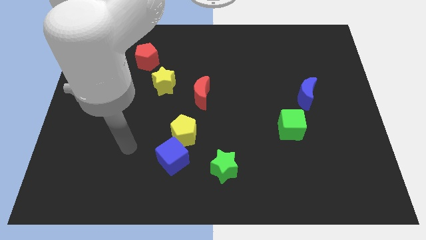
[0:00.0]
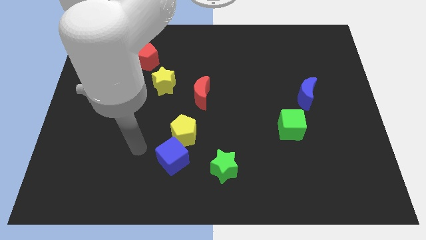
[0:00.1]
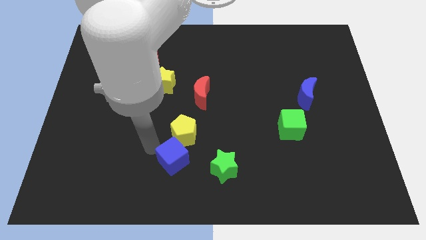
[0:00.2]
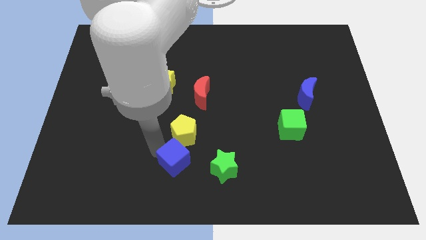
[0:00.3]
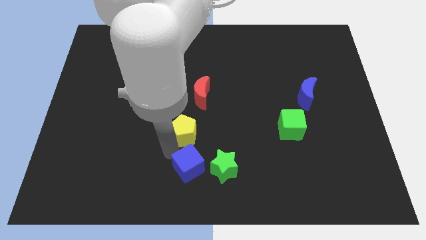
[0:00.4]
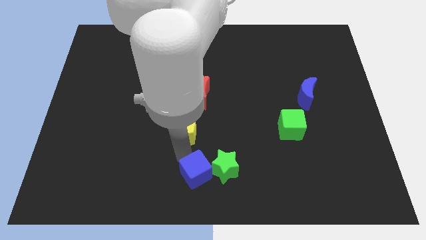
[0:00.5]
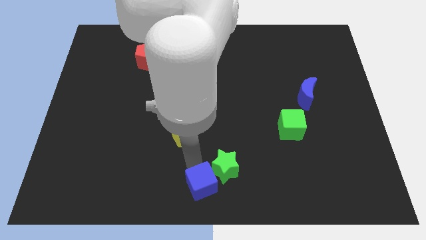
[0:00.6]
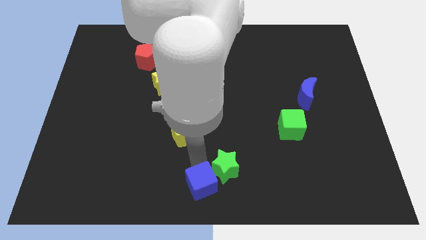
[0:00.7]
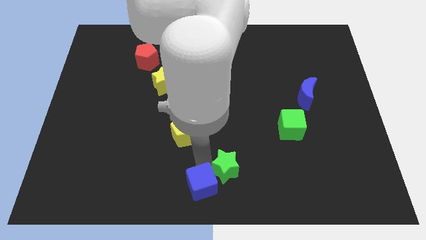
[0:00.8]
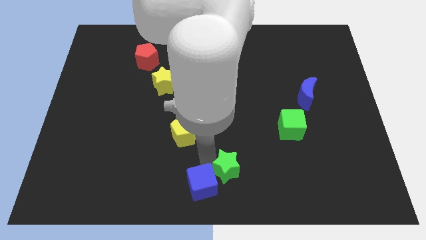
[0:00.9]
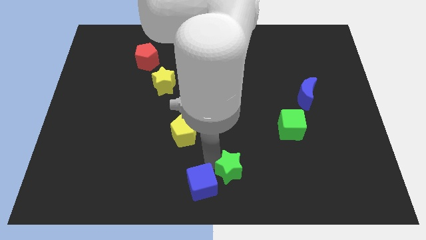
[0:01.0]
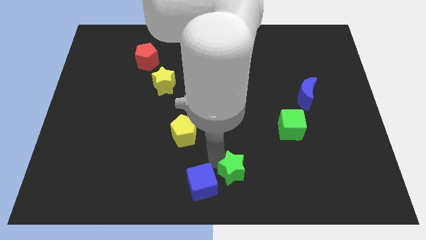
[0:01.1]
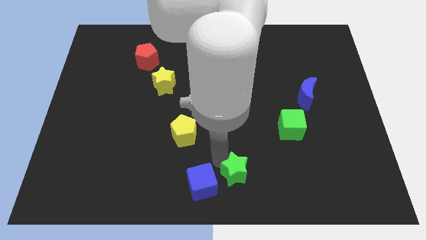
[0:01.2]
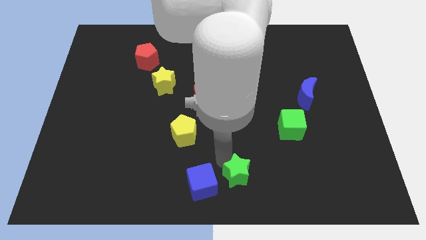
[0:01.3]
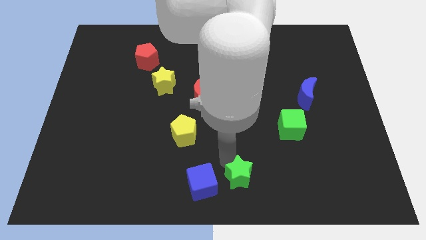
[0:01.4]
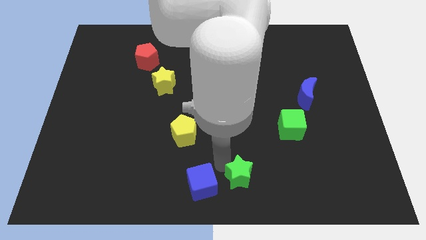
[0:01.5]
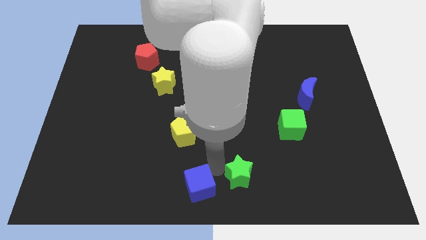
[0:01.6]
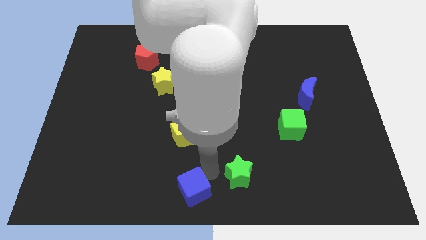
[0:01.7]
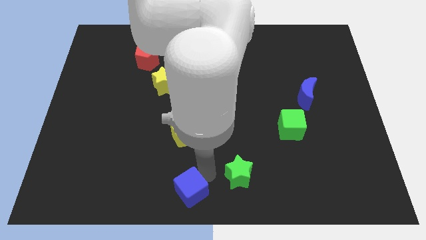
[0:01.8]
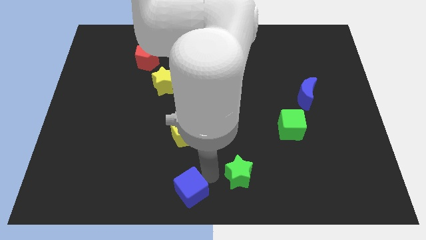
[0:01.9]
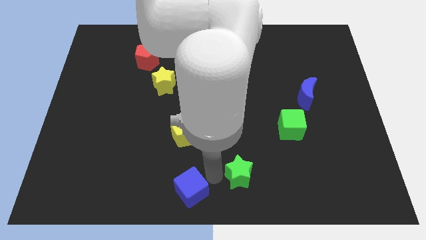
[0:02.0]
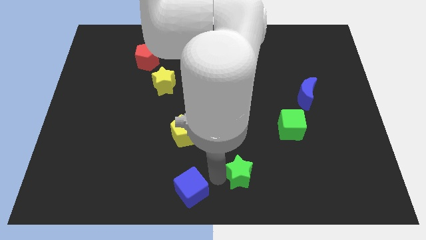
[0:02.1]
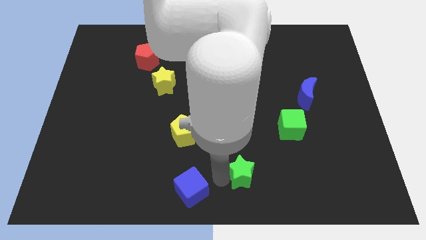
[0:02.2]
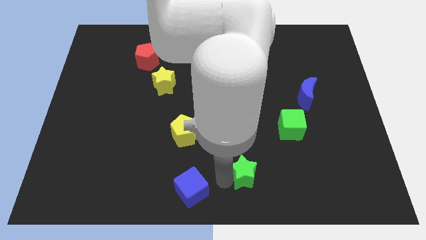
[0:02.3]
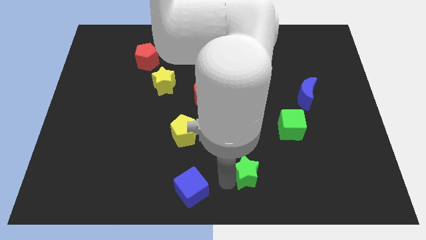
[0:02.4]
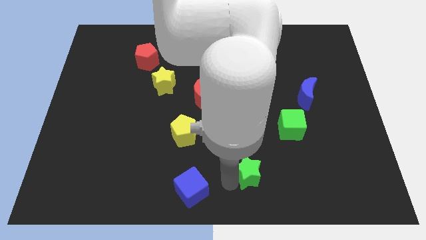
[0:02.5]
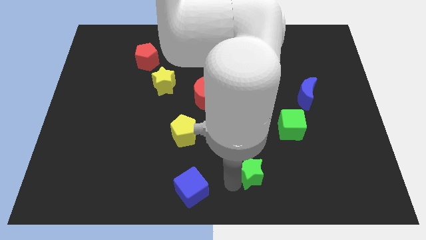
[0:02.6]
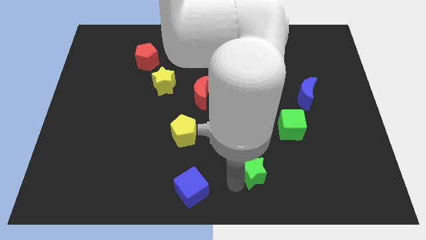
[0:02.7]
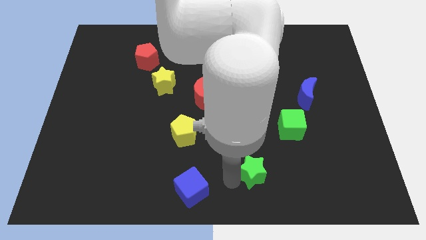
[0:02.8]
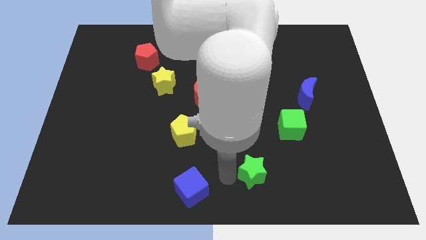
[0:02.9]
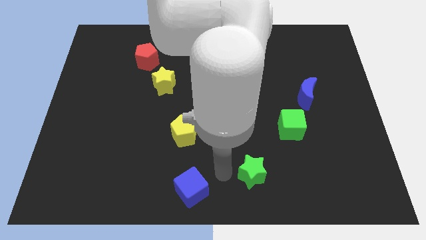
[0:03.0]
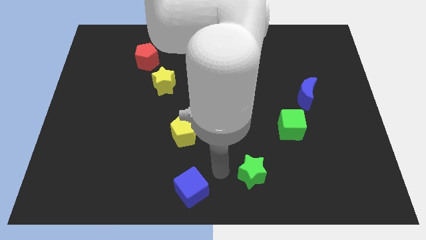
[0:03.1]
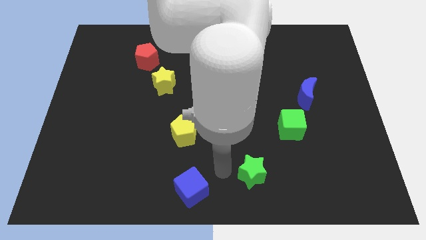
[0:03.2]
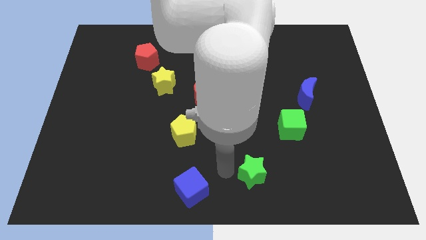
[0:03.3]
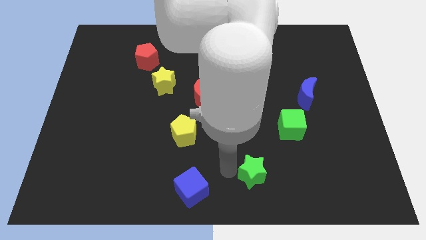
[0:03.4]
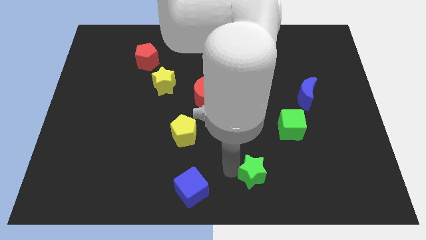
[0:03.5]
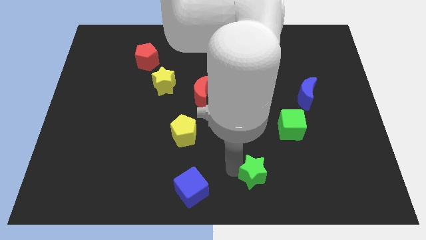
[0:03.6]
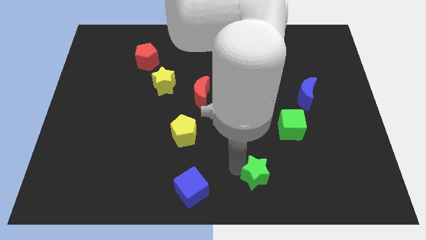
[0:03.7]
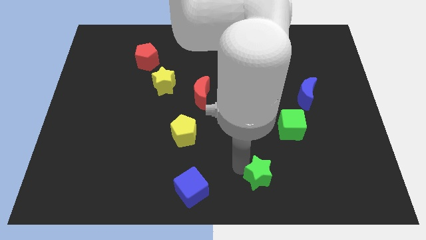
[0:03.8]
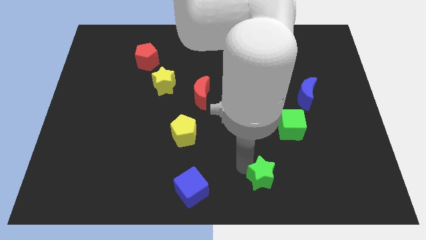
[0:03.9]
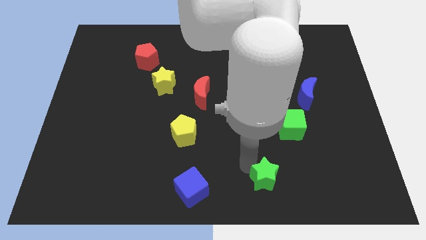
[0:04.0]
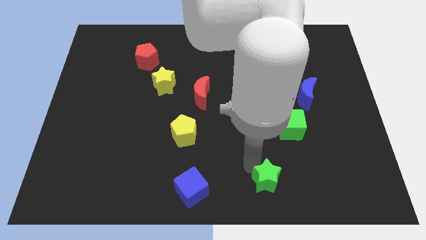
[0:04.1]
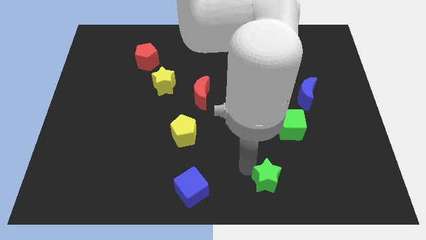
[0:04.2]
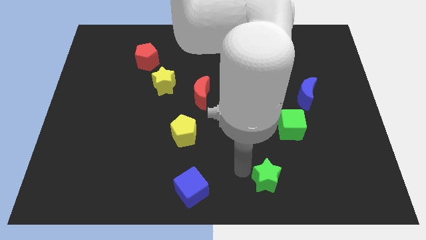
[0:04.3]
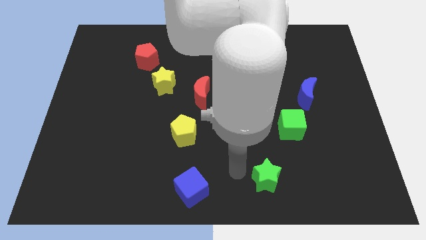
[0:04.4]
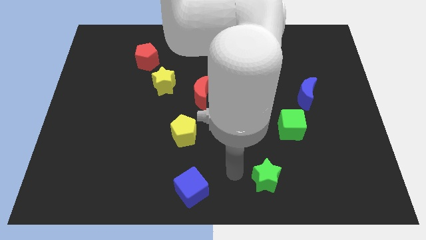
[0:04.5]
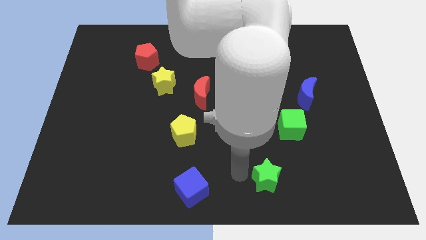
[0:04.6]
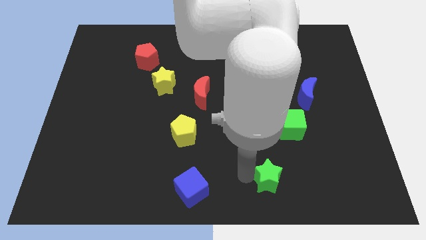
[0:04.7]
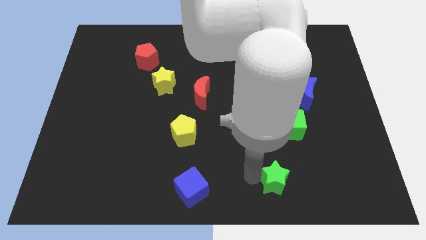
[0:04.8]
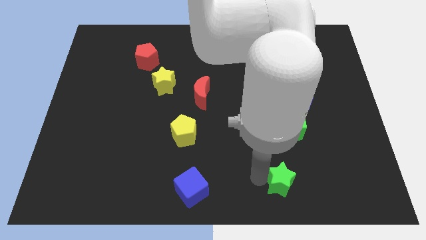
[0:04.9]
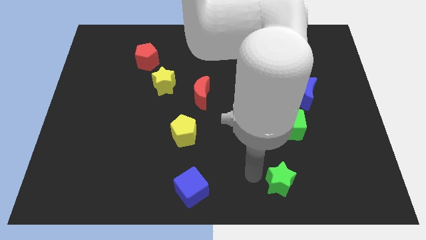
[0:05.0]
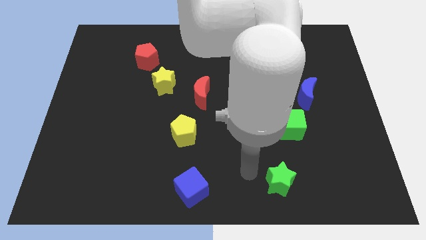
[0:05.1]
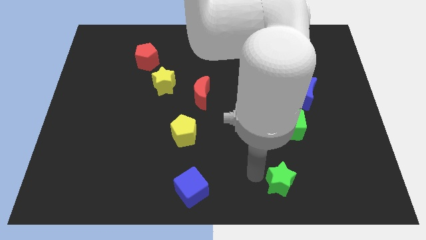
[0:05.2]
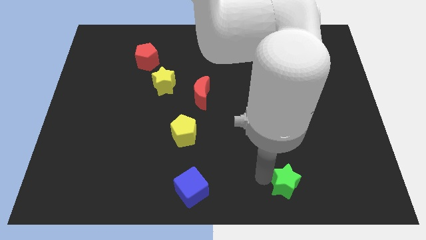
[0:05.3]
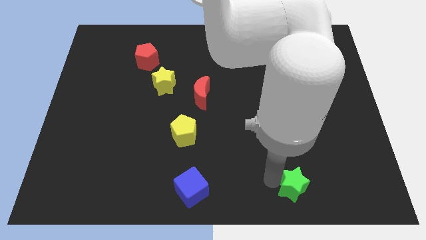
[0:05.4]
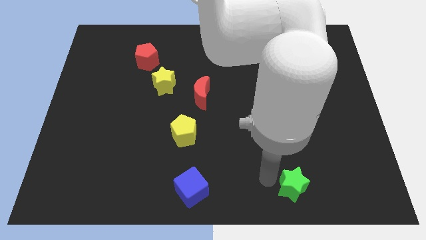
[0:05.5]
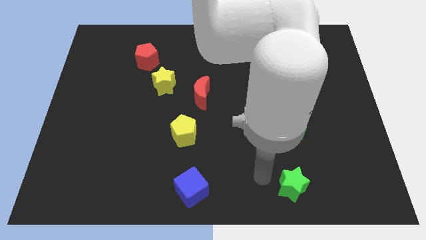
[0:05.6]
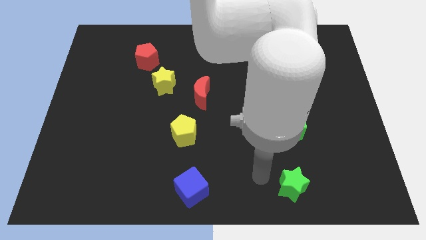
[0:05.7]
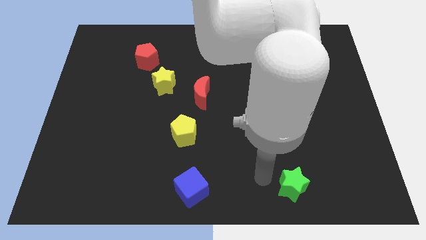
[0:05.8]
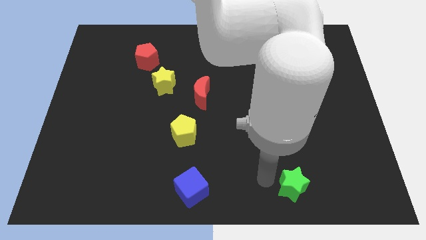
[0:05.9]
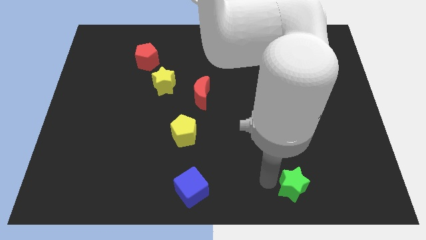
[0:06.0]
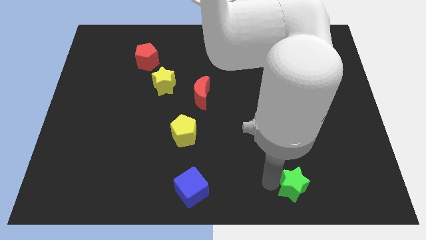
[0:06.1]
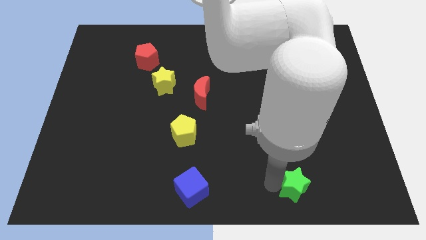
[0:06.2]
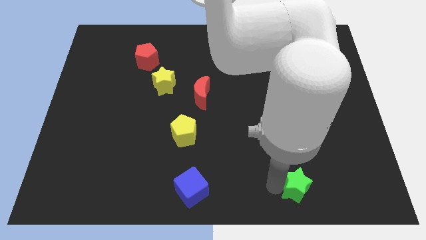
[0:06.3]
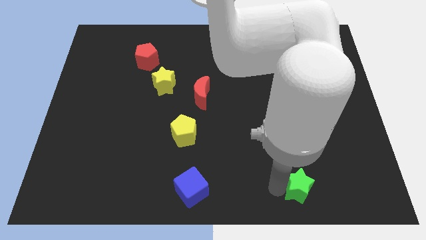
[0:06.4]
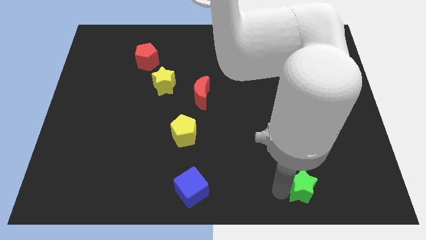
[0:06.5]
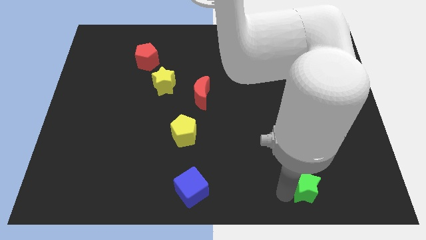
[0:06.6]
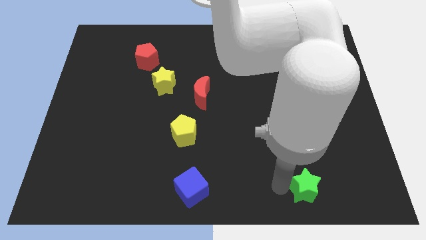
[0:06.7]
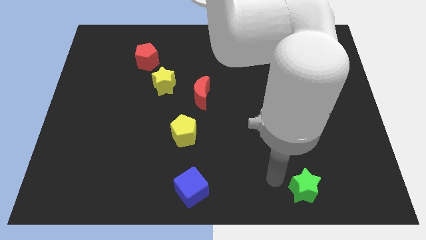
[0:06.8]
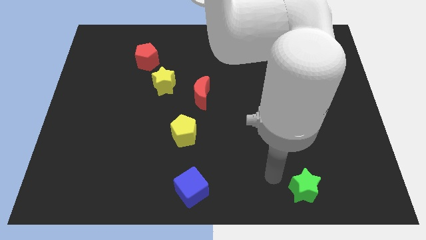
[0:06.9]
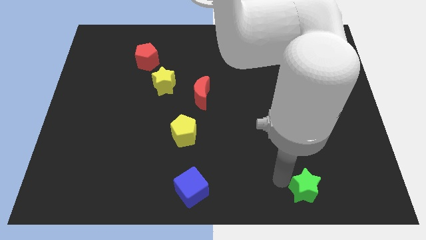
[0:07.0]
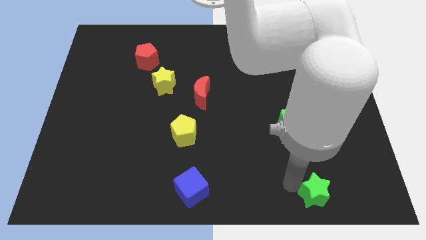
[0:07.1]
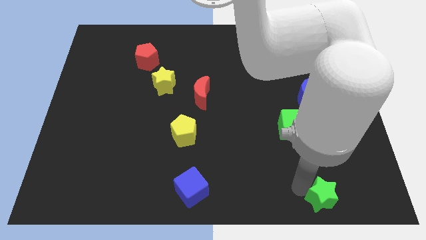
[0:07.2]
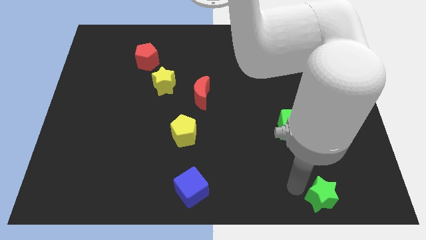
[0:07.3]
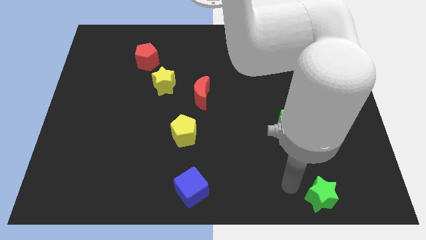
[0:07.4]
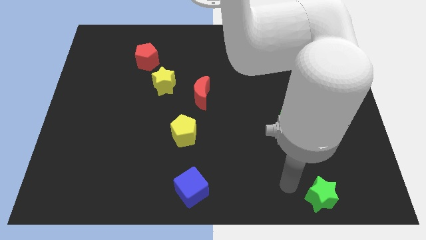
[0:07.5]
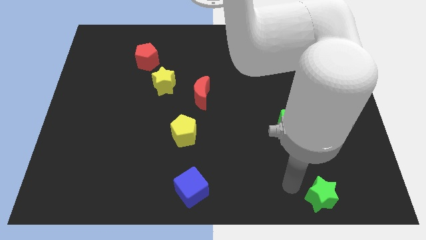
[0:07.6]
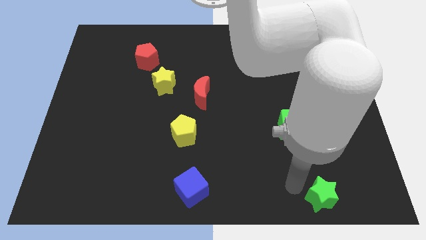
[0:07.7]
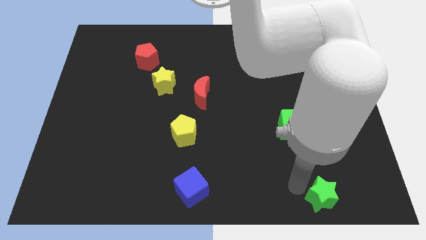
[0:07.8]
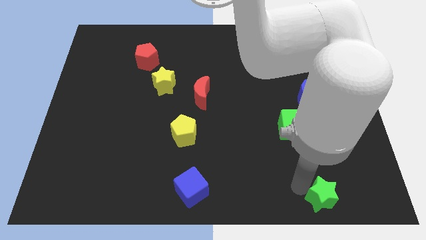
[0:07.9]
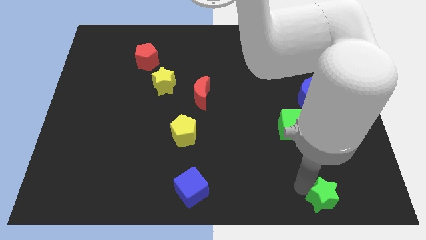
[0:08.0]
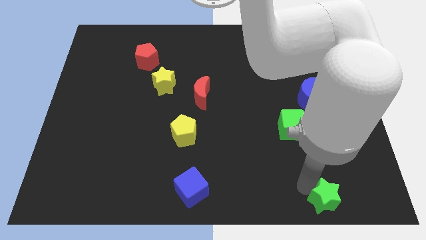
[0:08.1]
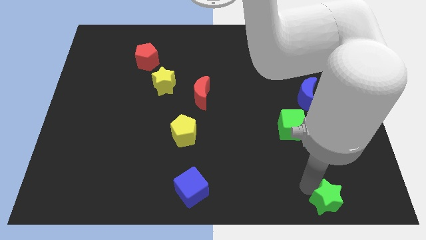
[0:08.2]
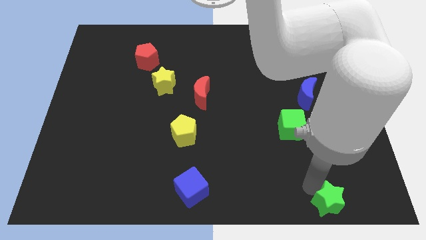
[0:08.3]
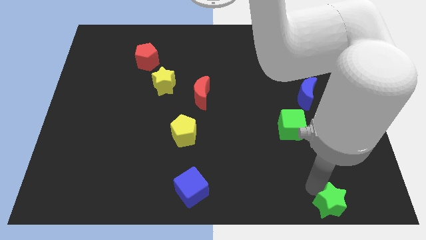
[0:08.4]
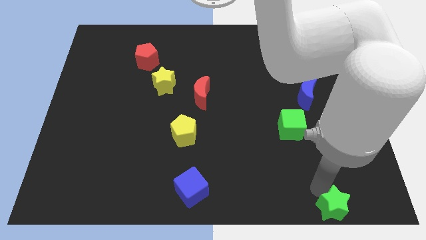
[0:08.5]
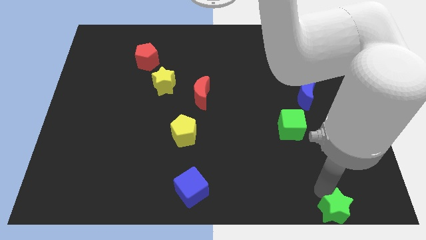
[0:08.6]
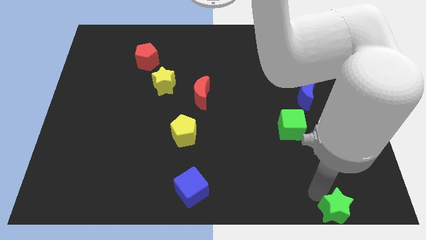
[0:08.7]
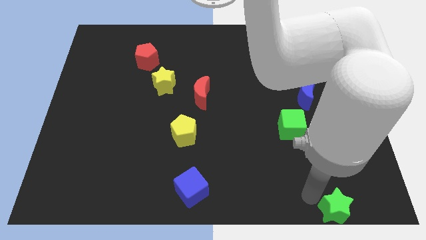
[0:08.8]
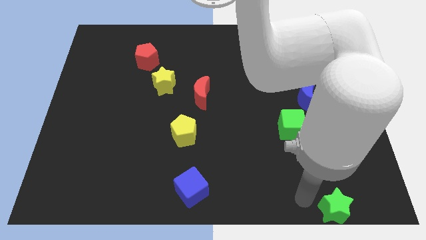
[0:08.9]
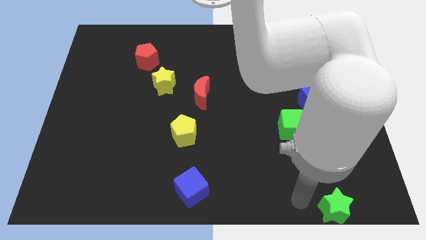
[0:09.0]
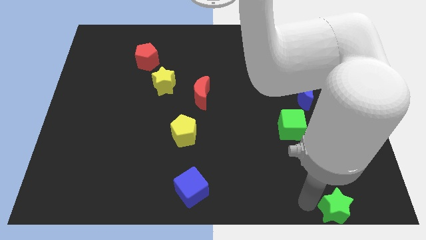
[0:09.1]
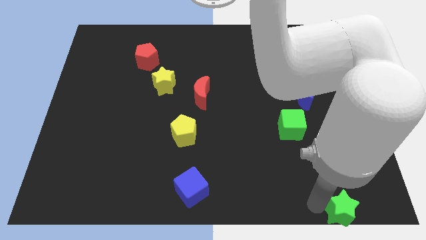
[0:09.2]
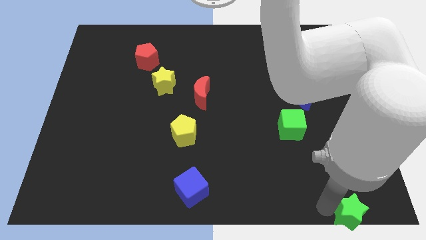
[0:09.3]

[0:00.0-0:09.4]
put the green star to the bottom right corner
